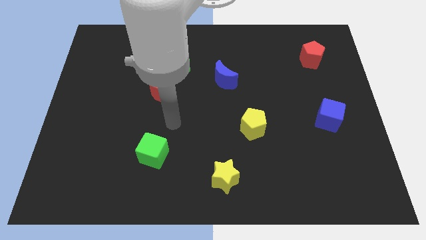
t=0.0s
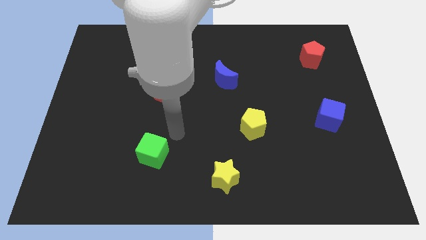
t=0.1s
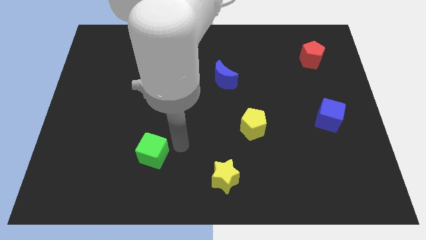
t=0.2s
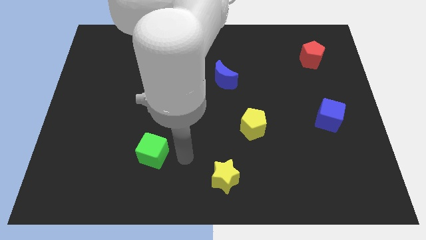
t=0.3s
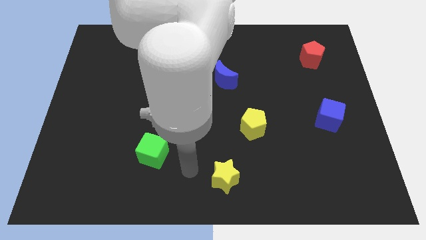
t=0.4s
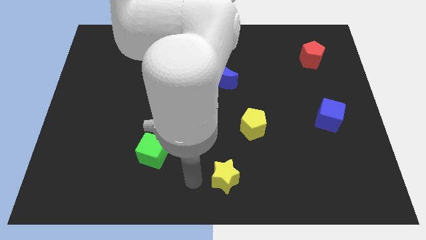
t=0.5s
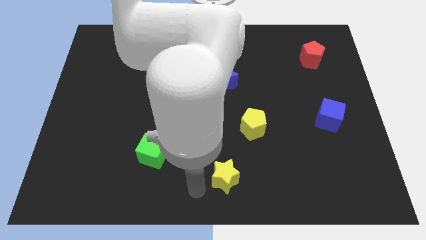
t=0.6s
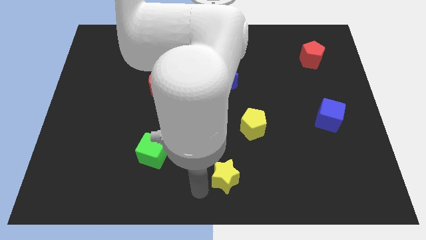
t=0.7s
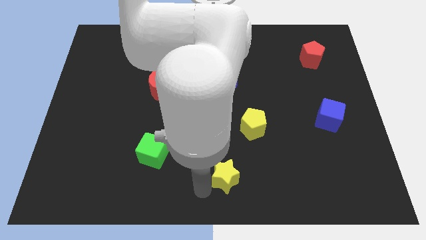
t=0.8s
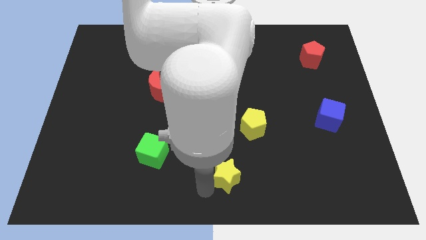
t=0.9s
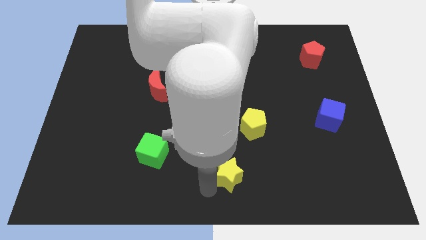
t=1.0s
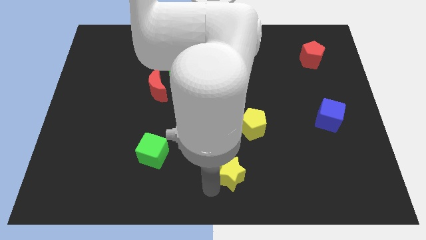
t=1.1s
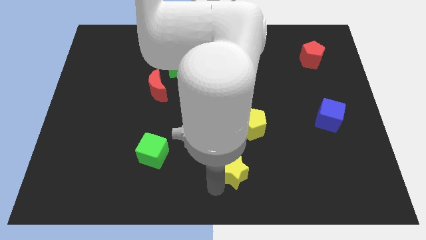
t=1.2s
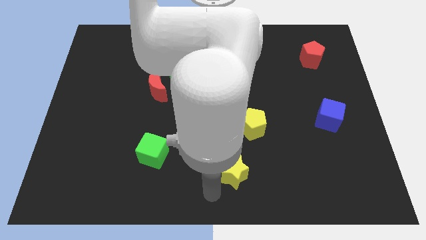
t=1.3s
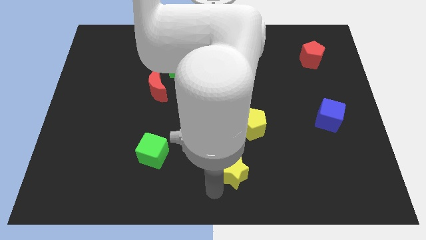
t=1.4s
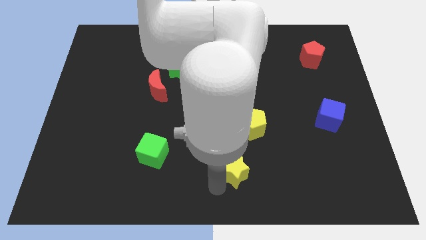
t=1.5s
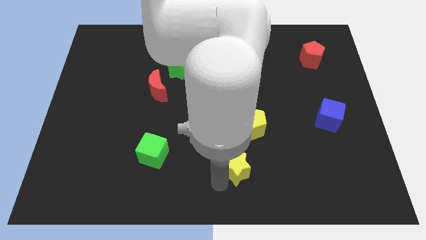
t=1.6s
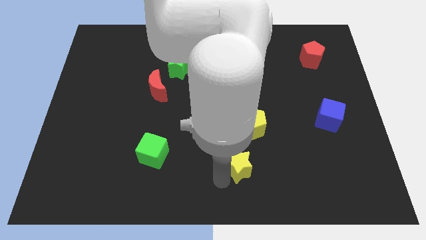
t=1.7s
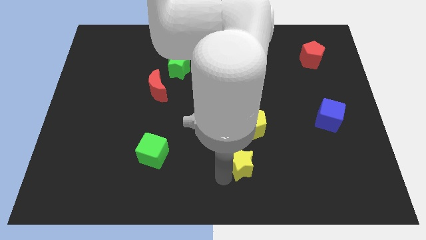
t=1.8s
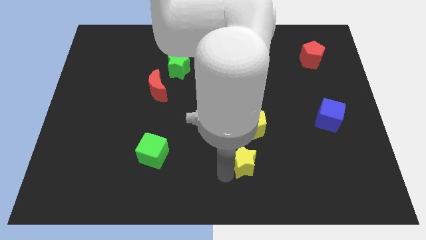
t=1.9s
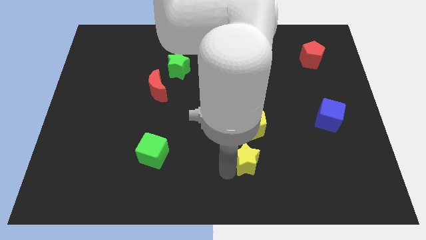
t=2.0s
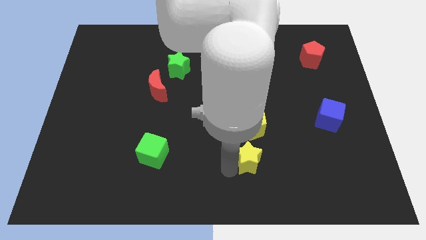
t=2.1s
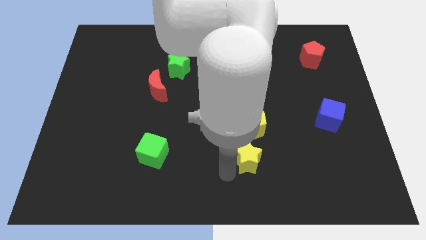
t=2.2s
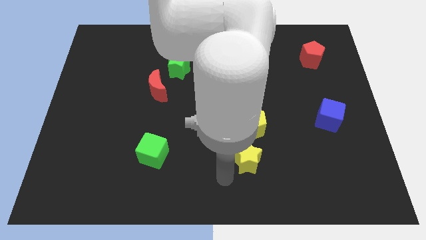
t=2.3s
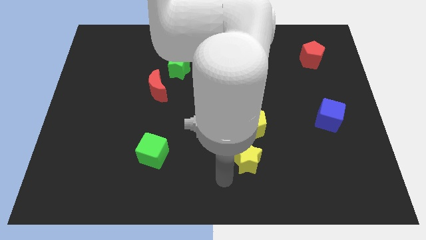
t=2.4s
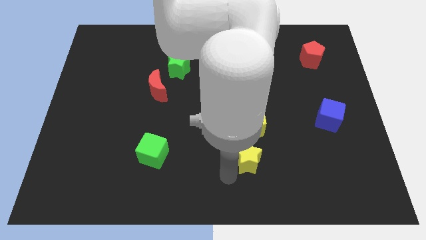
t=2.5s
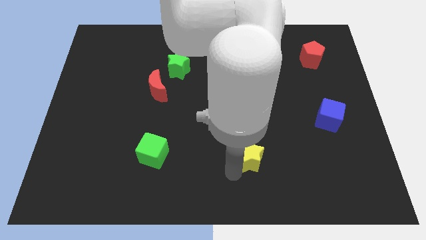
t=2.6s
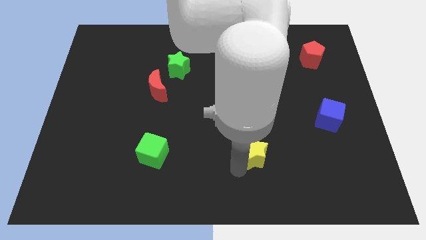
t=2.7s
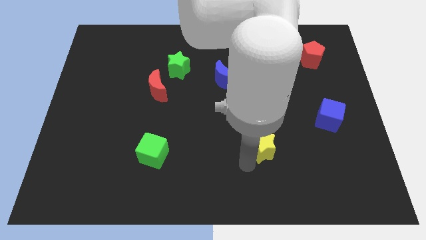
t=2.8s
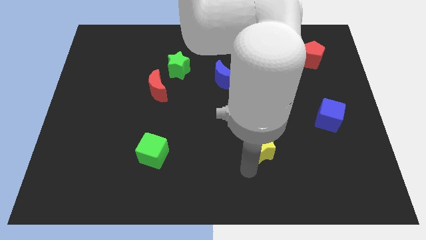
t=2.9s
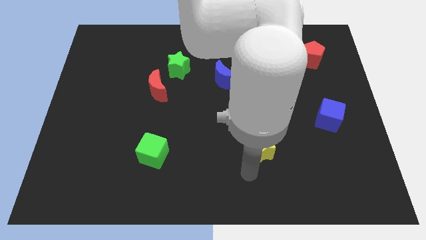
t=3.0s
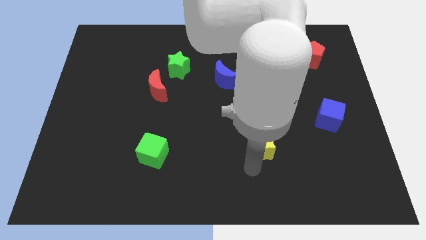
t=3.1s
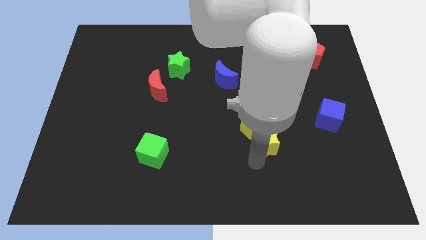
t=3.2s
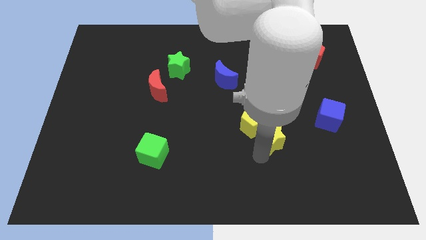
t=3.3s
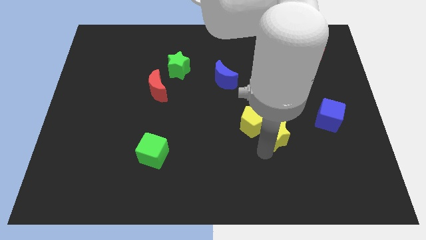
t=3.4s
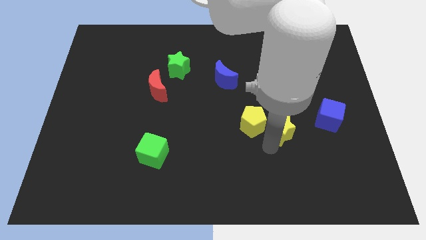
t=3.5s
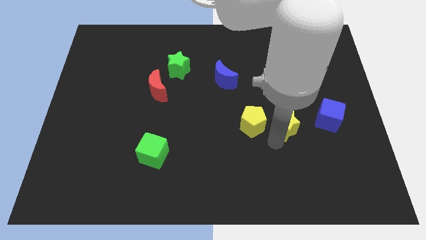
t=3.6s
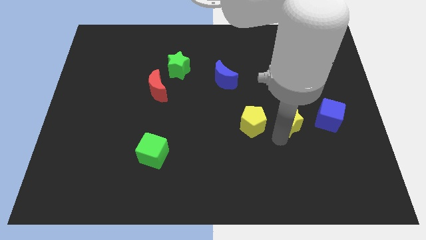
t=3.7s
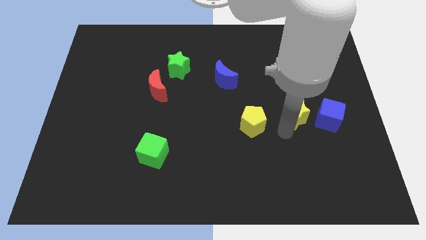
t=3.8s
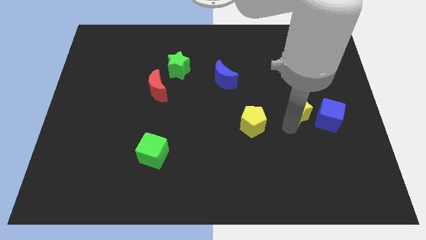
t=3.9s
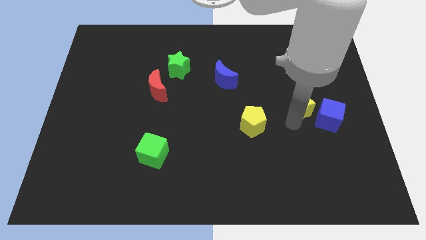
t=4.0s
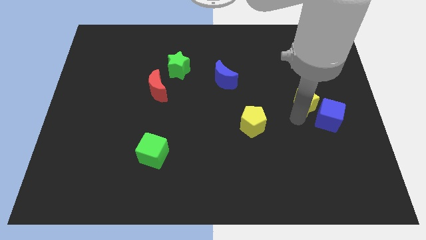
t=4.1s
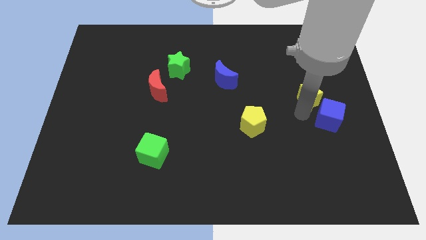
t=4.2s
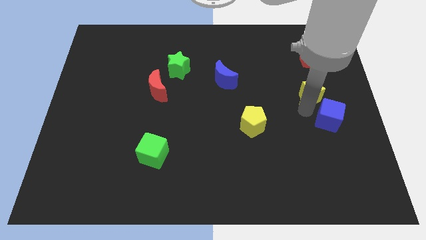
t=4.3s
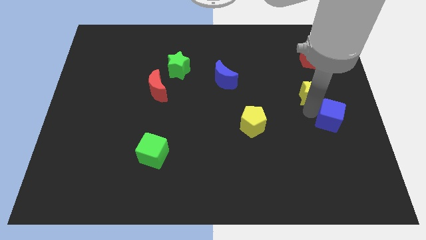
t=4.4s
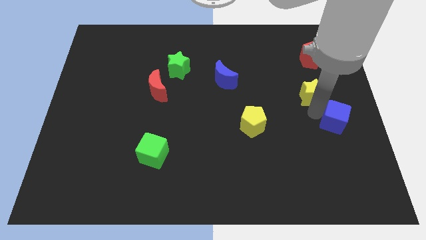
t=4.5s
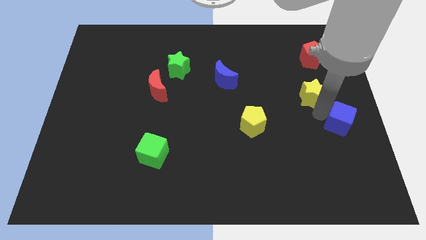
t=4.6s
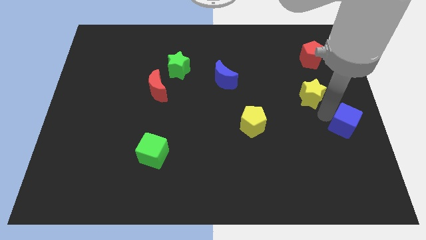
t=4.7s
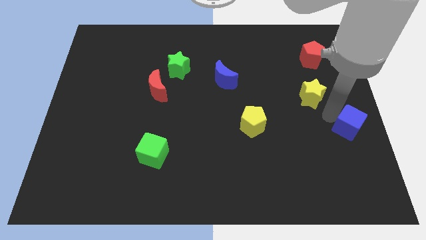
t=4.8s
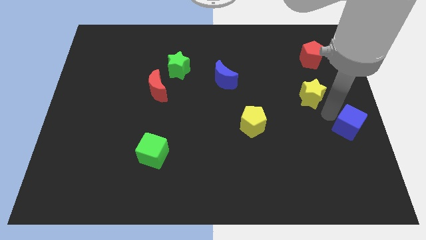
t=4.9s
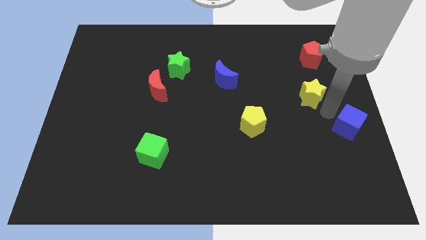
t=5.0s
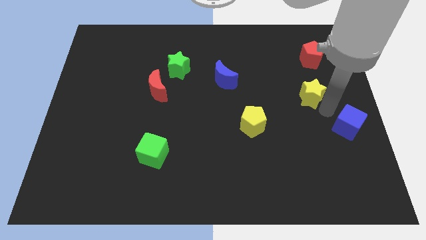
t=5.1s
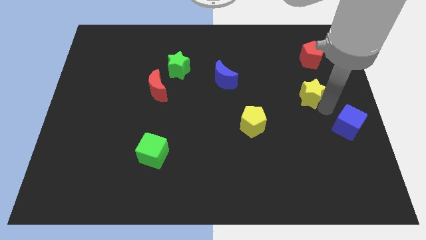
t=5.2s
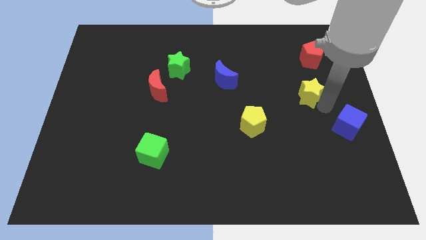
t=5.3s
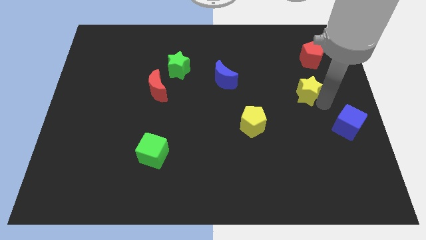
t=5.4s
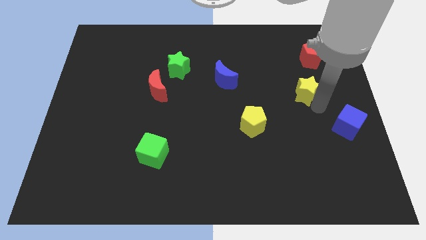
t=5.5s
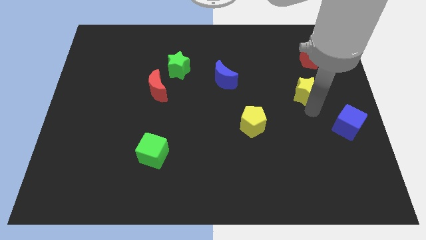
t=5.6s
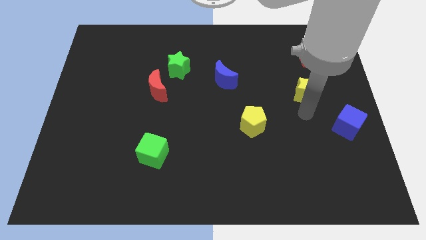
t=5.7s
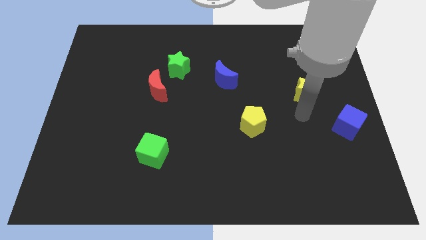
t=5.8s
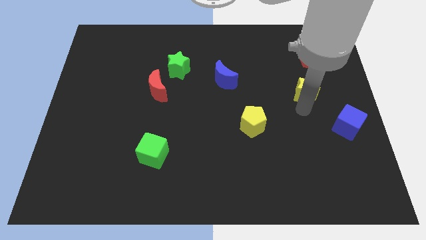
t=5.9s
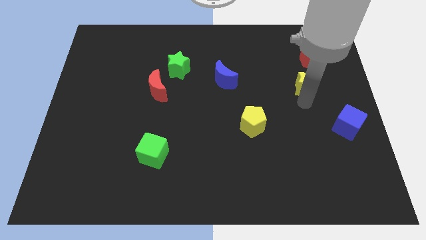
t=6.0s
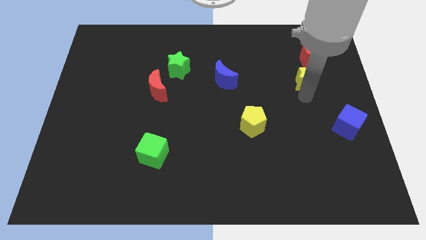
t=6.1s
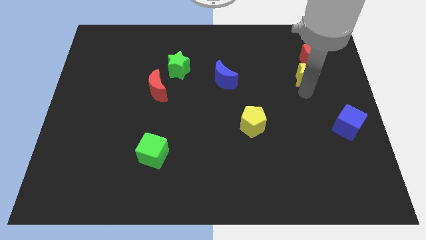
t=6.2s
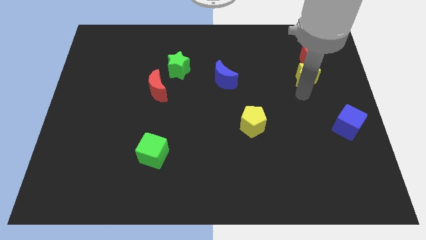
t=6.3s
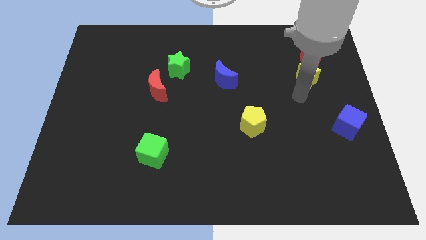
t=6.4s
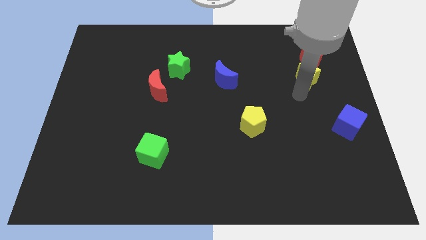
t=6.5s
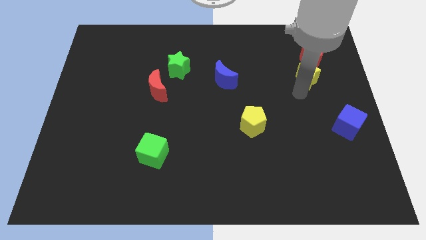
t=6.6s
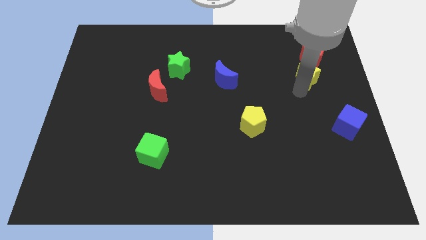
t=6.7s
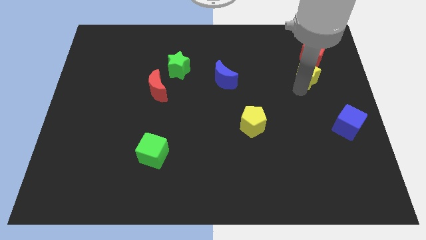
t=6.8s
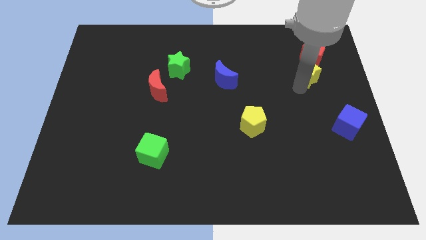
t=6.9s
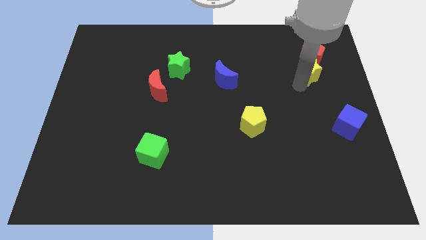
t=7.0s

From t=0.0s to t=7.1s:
put the yellow star close to the red pentagon
